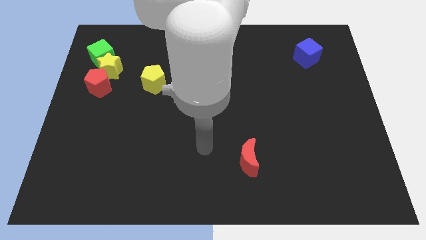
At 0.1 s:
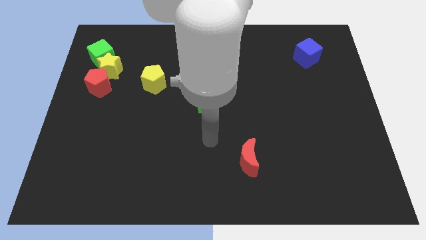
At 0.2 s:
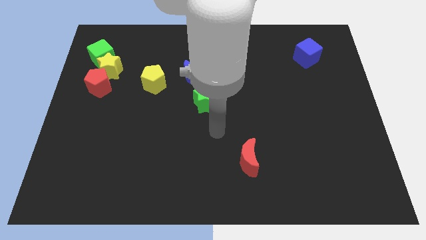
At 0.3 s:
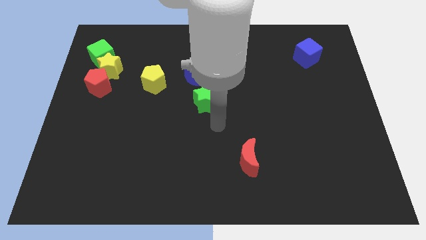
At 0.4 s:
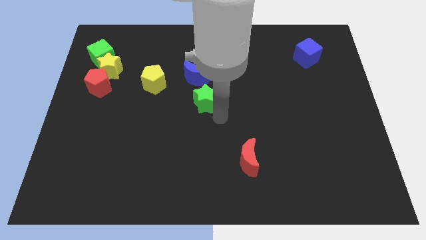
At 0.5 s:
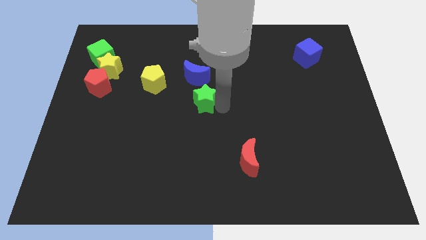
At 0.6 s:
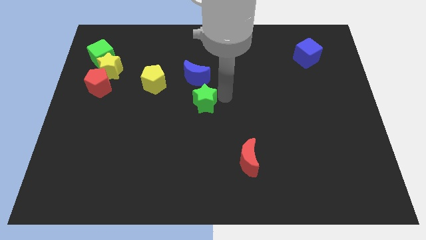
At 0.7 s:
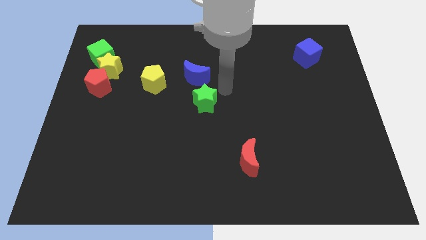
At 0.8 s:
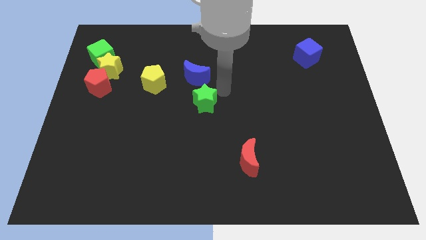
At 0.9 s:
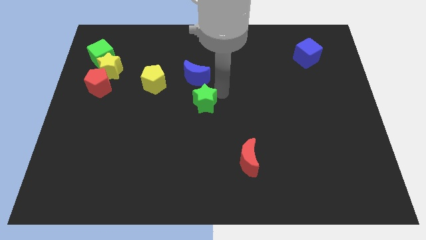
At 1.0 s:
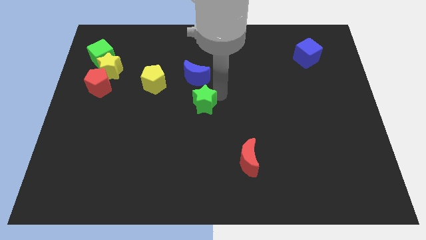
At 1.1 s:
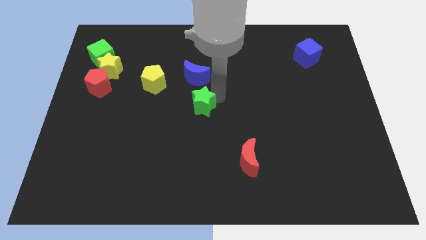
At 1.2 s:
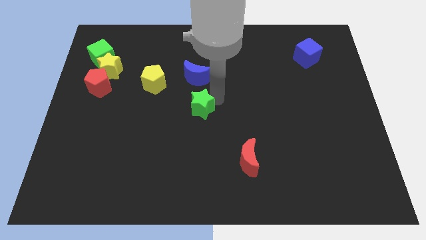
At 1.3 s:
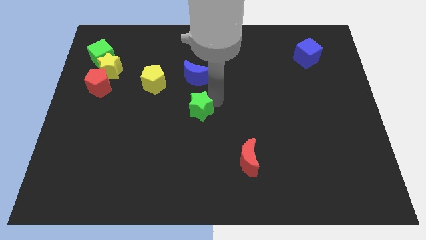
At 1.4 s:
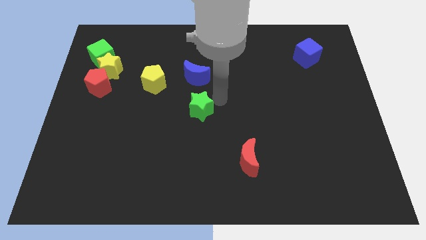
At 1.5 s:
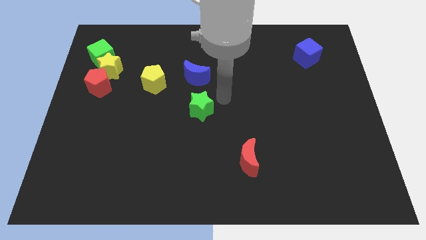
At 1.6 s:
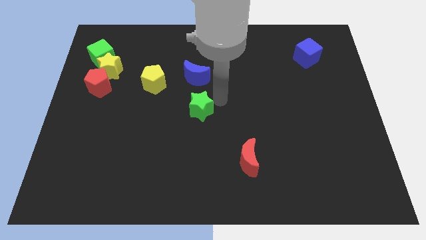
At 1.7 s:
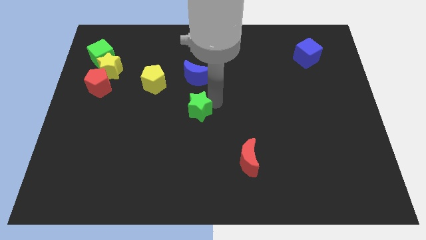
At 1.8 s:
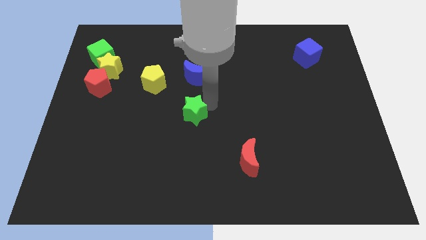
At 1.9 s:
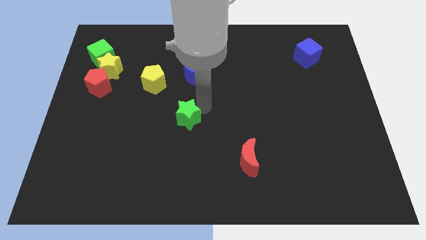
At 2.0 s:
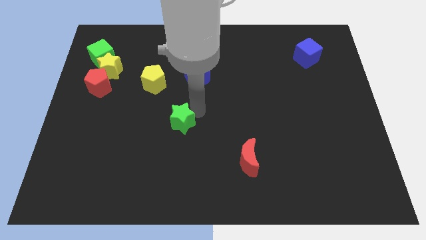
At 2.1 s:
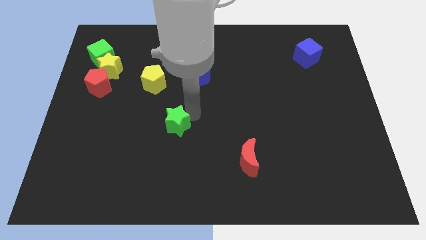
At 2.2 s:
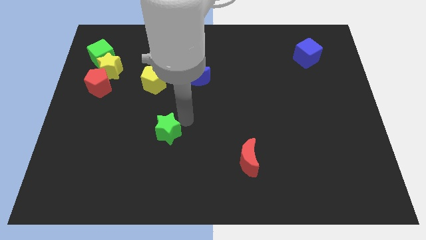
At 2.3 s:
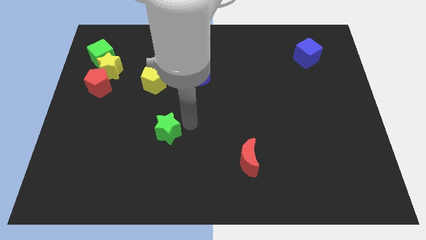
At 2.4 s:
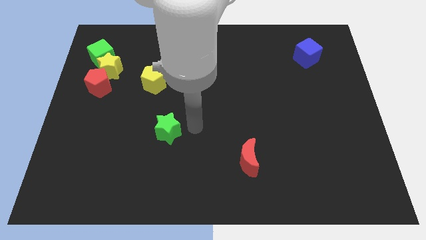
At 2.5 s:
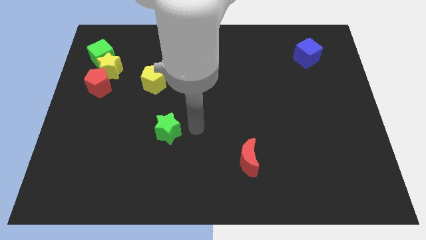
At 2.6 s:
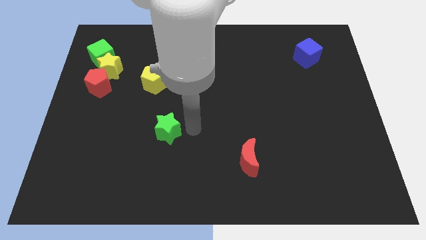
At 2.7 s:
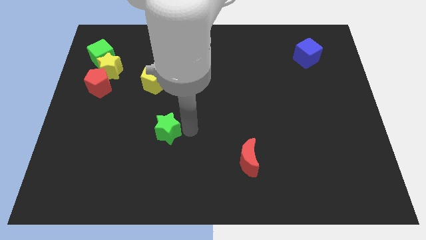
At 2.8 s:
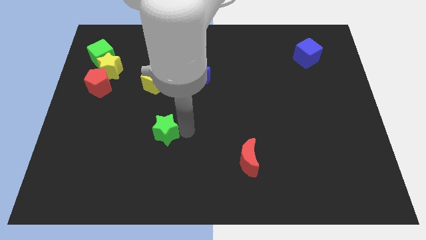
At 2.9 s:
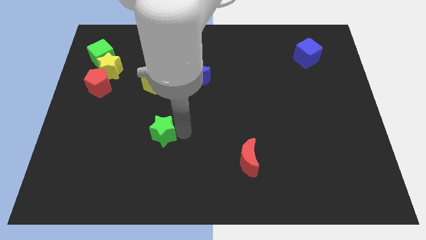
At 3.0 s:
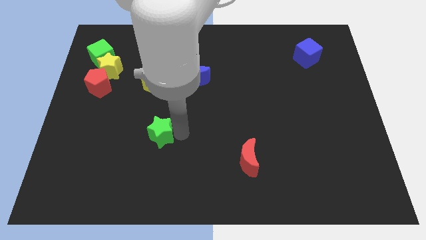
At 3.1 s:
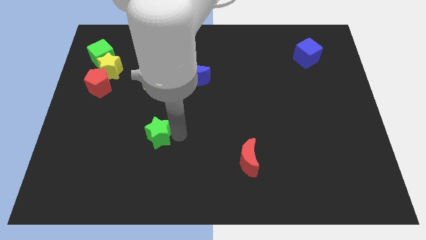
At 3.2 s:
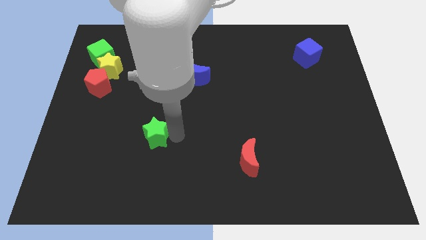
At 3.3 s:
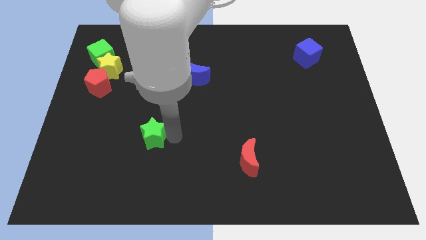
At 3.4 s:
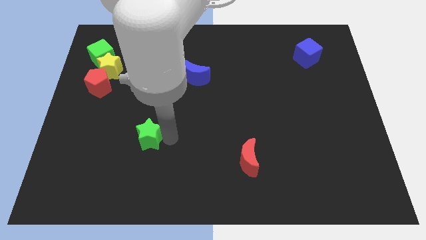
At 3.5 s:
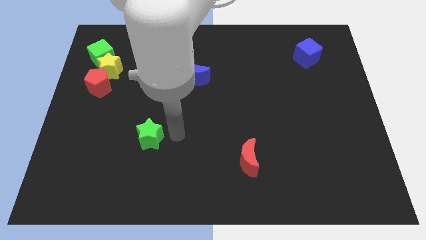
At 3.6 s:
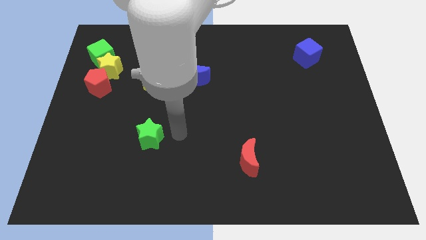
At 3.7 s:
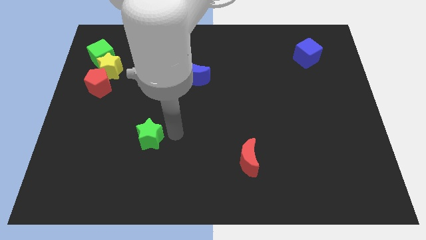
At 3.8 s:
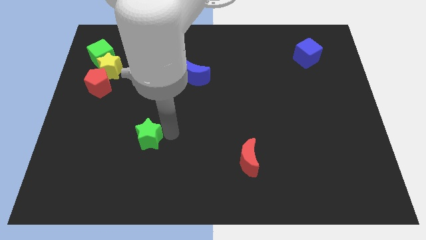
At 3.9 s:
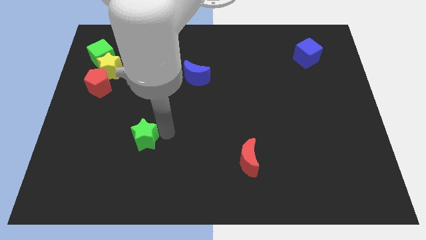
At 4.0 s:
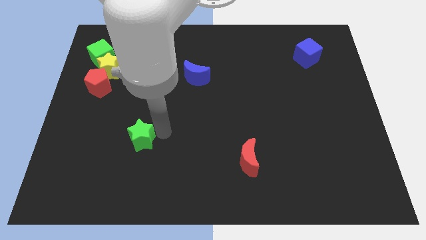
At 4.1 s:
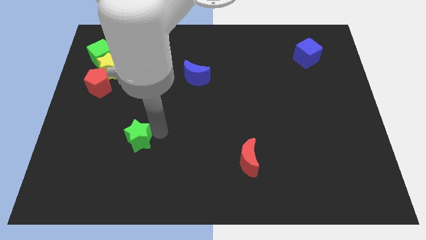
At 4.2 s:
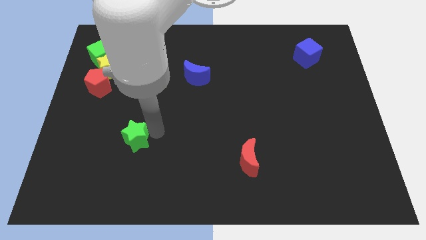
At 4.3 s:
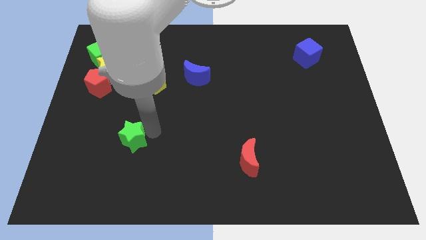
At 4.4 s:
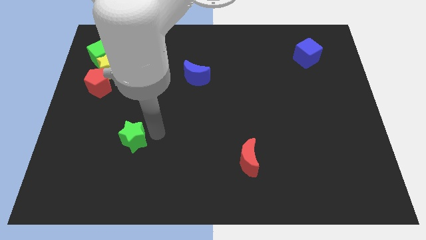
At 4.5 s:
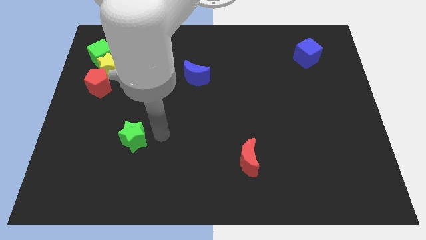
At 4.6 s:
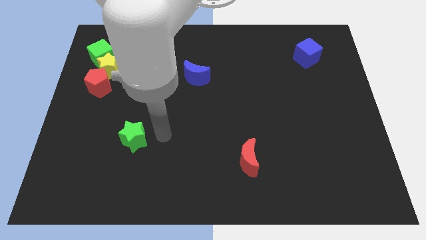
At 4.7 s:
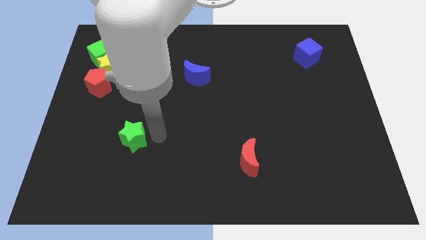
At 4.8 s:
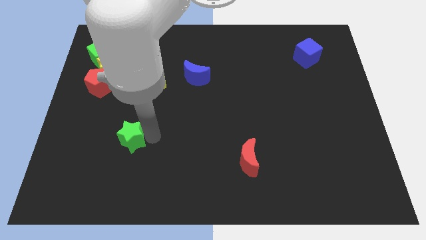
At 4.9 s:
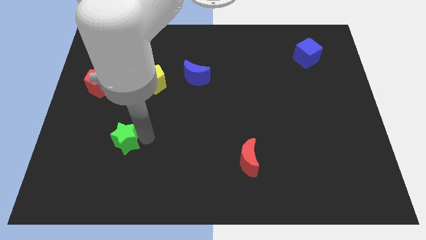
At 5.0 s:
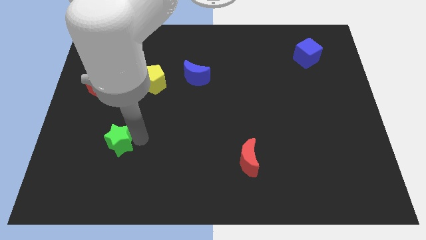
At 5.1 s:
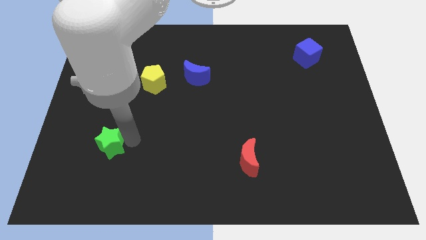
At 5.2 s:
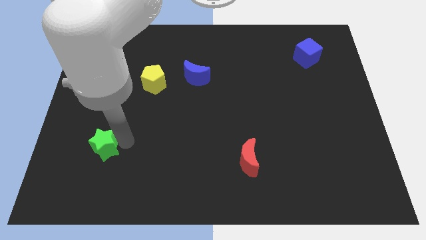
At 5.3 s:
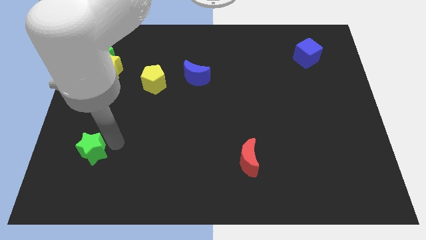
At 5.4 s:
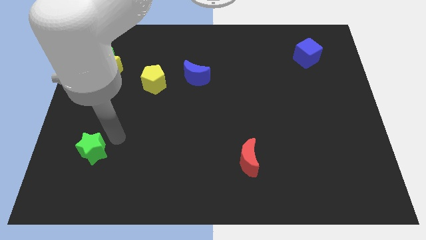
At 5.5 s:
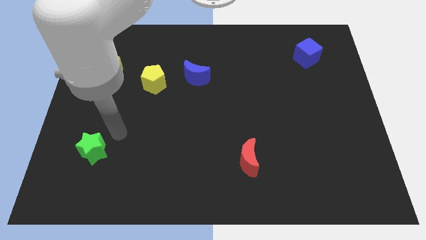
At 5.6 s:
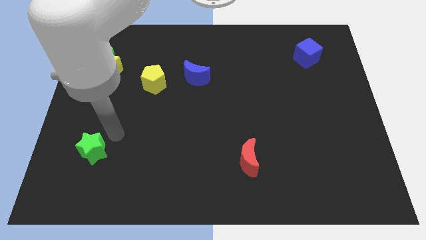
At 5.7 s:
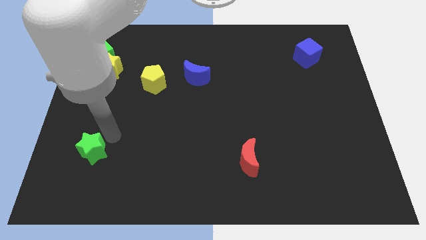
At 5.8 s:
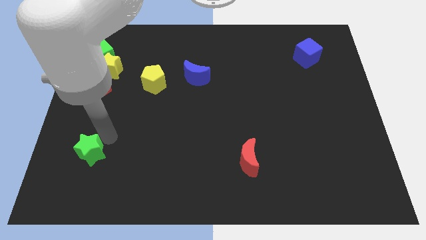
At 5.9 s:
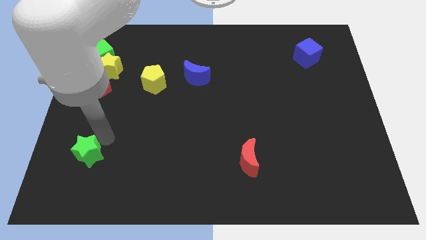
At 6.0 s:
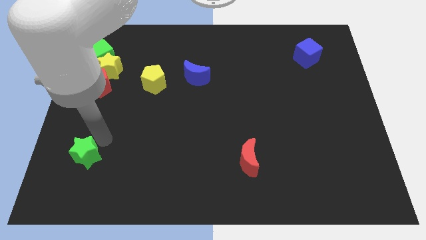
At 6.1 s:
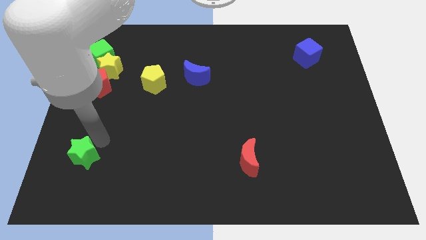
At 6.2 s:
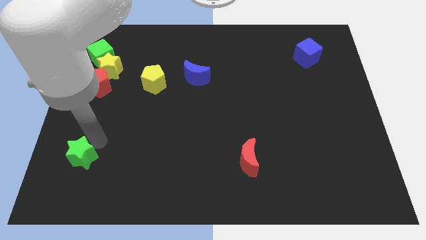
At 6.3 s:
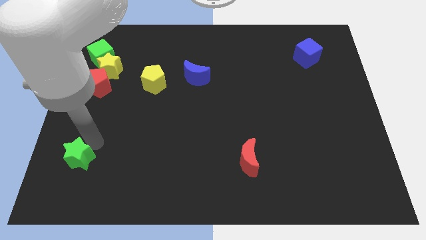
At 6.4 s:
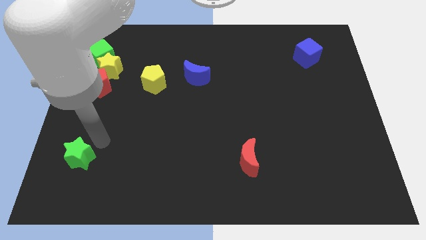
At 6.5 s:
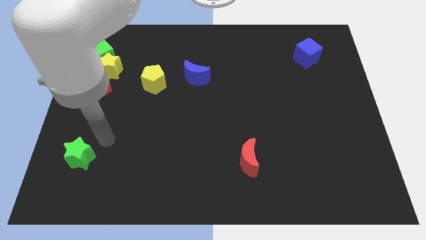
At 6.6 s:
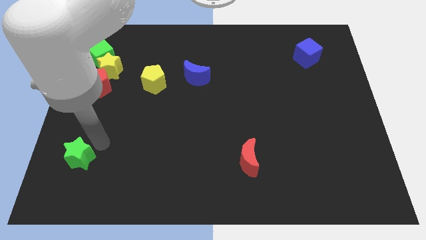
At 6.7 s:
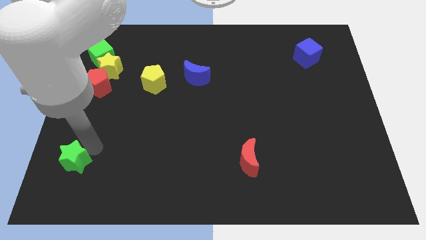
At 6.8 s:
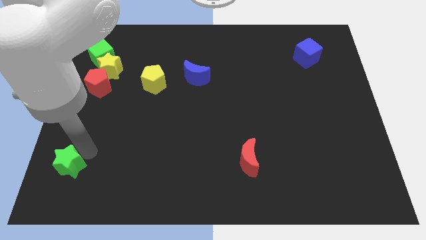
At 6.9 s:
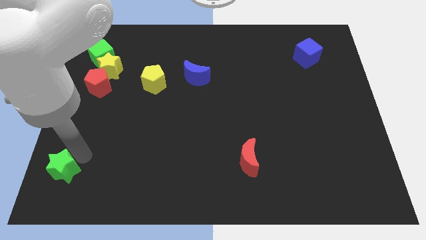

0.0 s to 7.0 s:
put the green star to the bottom left corner

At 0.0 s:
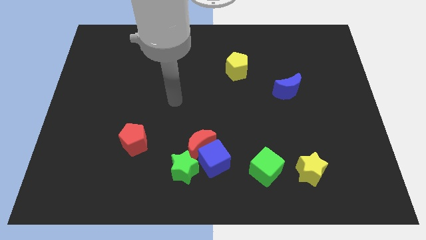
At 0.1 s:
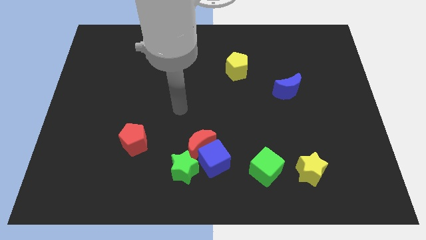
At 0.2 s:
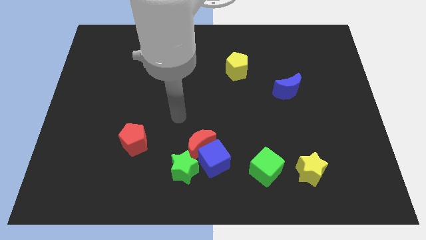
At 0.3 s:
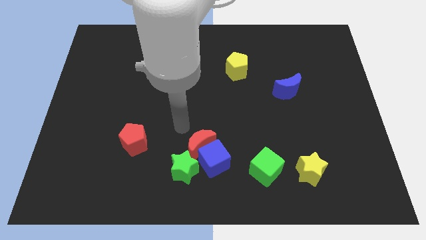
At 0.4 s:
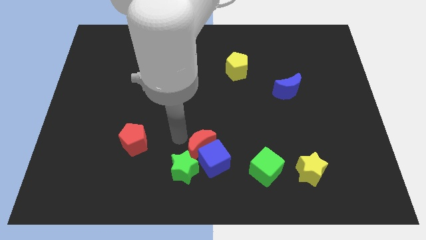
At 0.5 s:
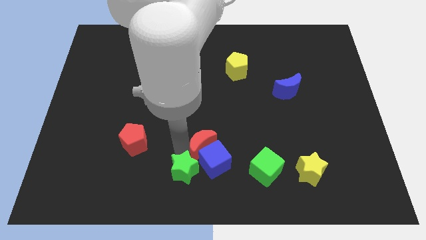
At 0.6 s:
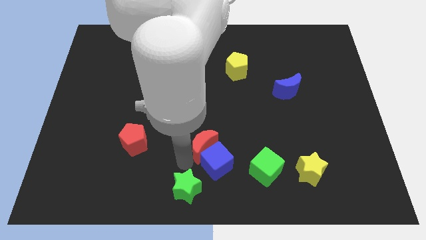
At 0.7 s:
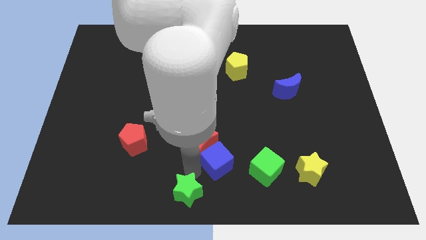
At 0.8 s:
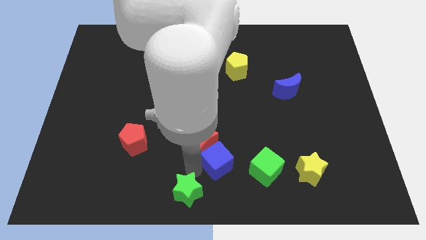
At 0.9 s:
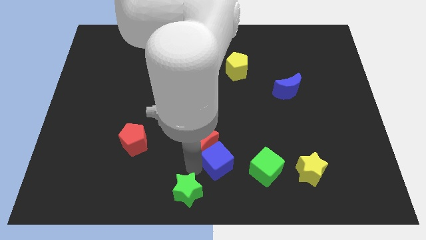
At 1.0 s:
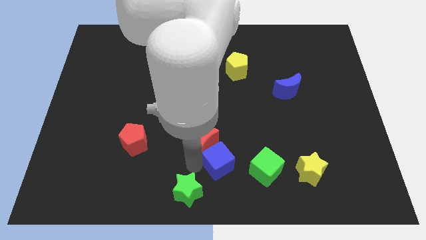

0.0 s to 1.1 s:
move the red moon to the center
